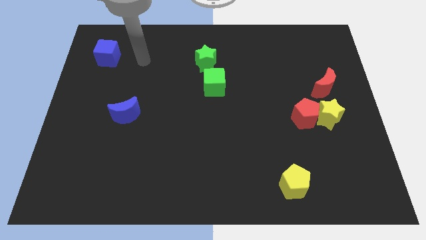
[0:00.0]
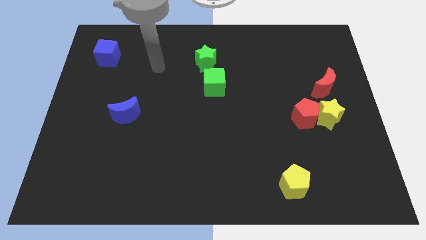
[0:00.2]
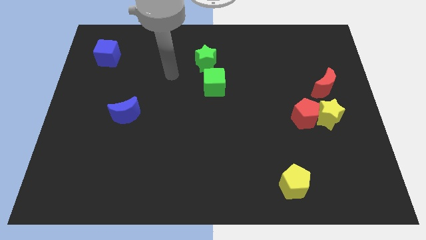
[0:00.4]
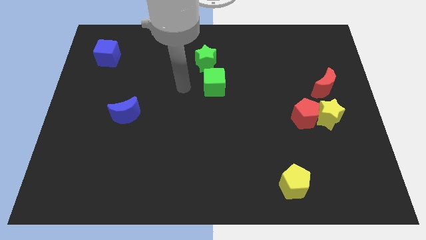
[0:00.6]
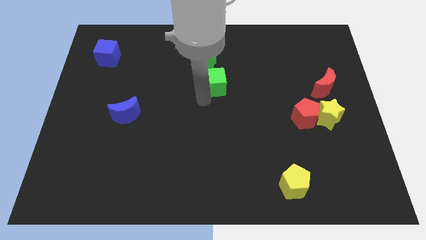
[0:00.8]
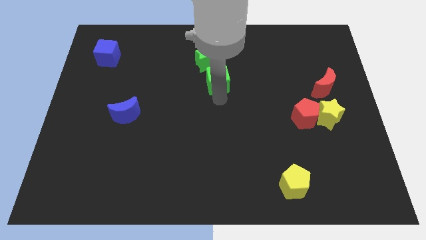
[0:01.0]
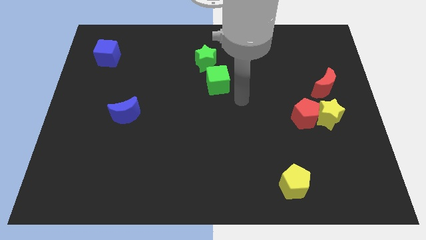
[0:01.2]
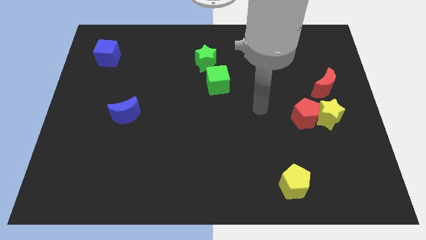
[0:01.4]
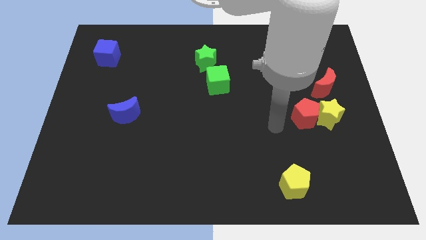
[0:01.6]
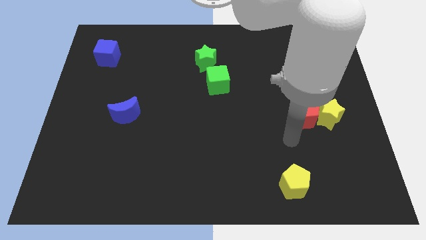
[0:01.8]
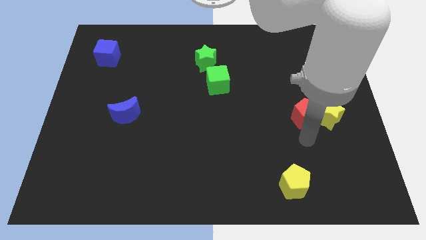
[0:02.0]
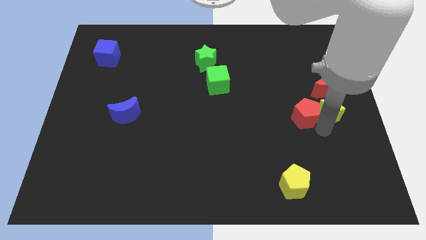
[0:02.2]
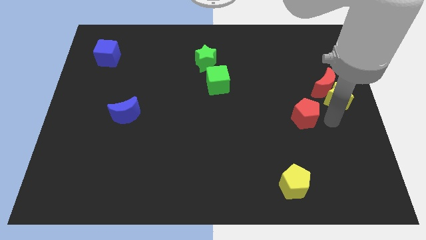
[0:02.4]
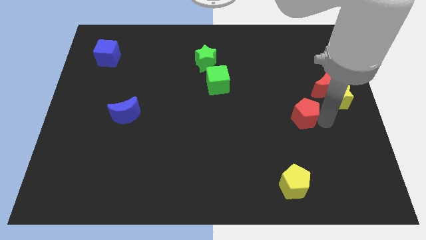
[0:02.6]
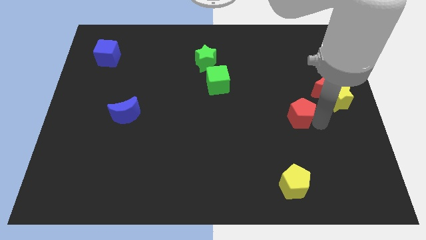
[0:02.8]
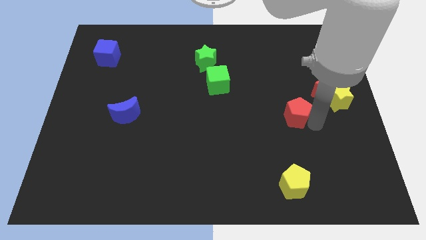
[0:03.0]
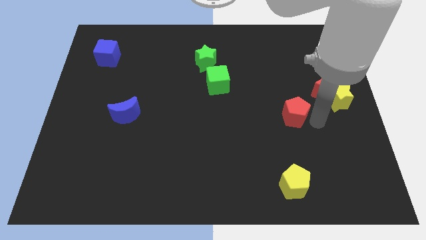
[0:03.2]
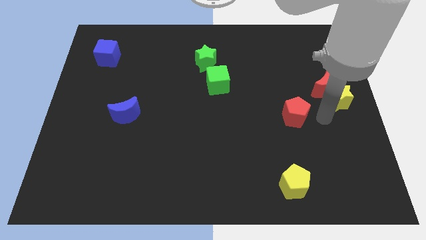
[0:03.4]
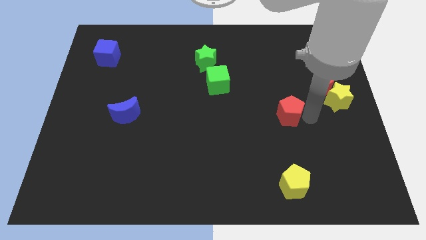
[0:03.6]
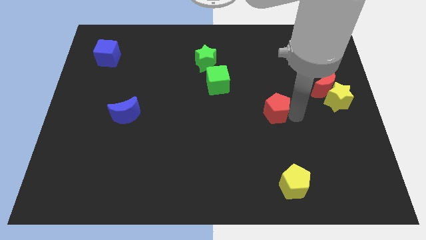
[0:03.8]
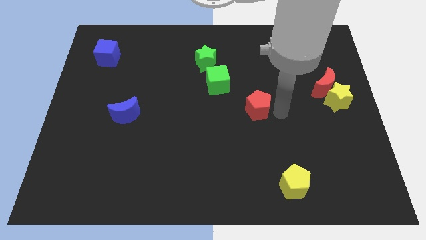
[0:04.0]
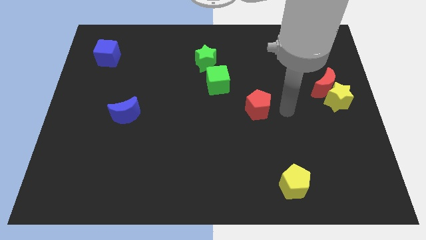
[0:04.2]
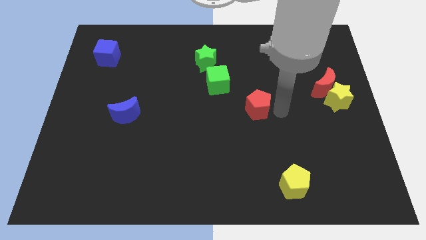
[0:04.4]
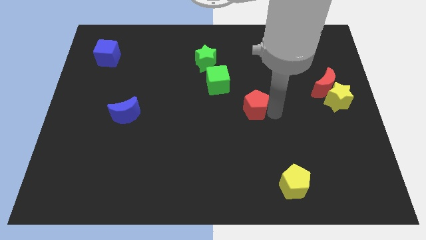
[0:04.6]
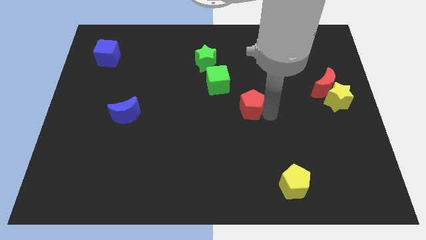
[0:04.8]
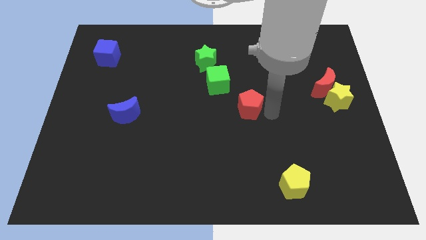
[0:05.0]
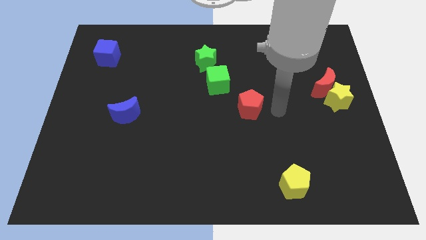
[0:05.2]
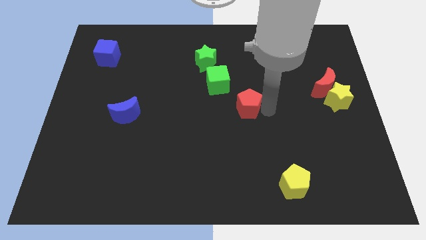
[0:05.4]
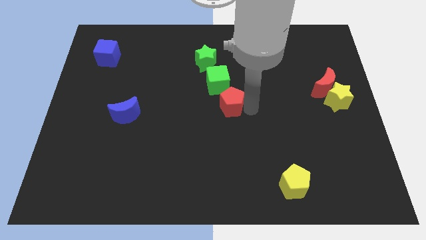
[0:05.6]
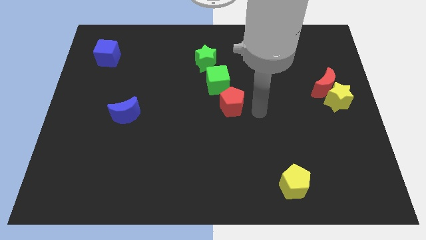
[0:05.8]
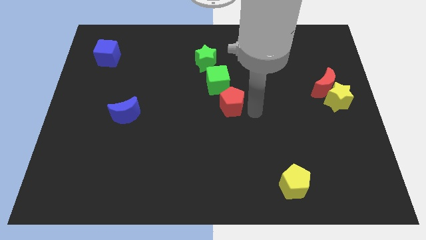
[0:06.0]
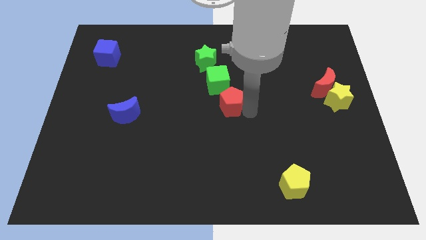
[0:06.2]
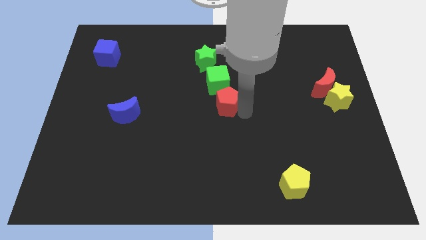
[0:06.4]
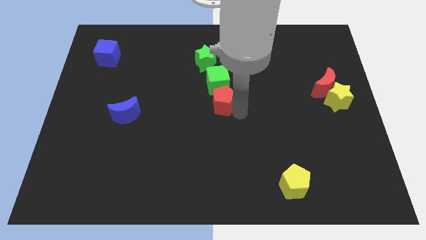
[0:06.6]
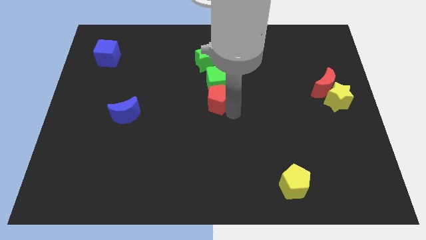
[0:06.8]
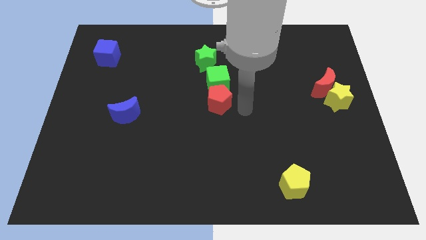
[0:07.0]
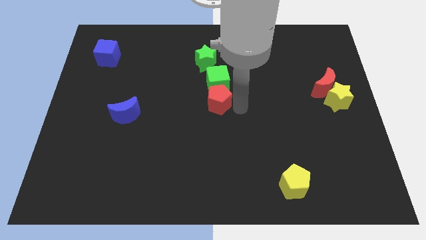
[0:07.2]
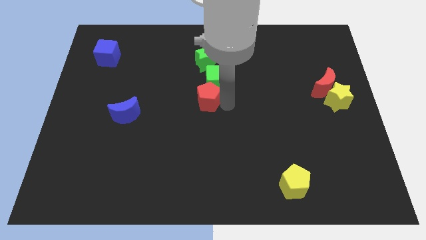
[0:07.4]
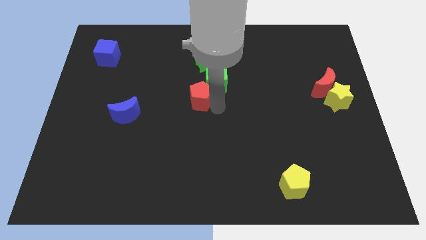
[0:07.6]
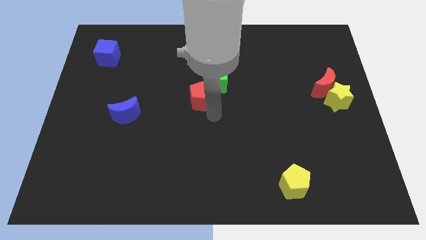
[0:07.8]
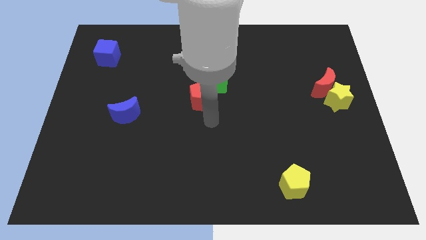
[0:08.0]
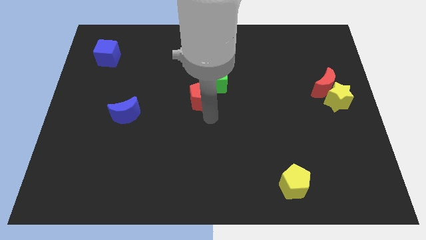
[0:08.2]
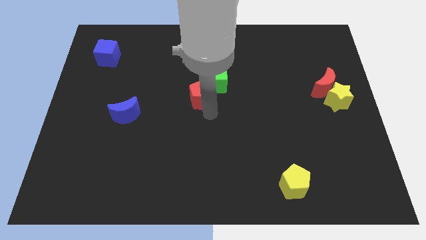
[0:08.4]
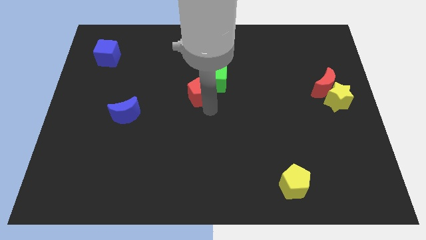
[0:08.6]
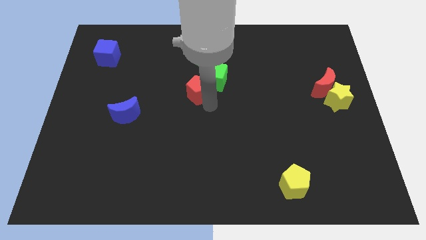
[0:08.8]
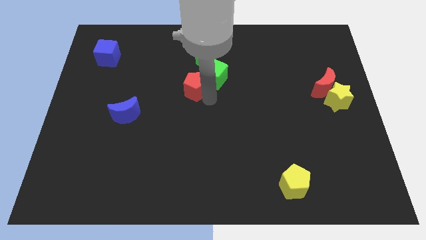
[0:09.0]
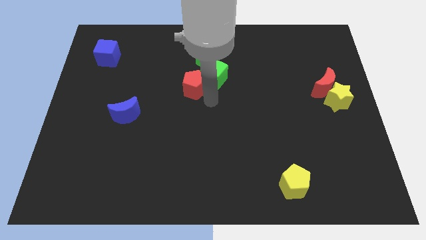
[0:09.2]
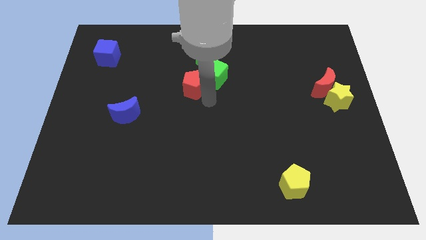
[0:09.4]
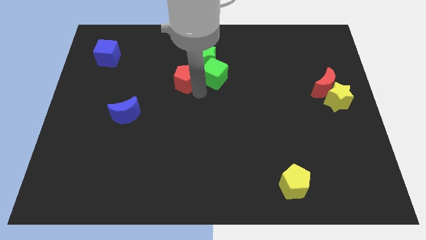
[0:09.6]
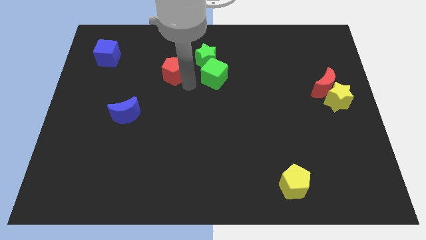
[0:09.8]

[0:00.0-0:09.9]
push the red pentagon to the left of the green star

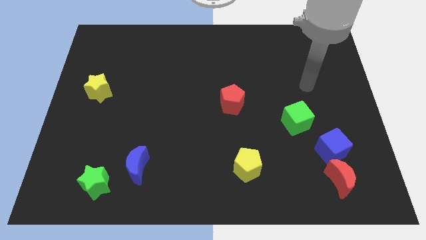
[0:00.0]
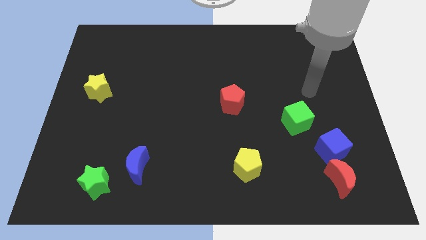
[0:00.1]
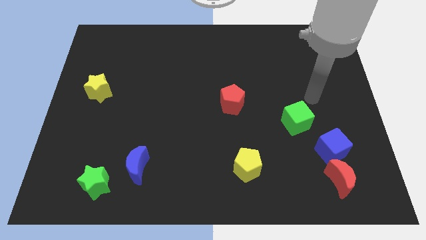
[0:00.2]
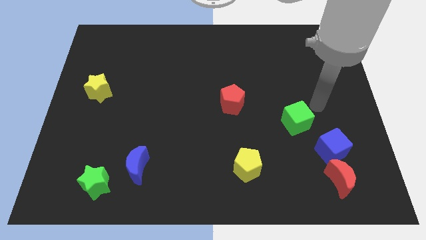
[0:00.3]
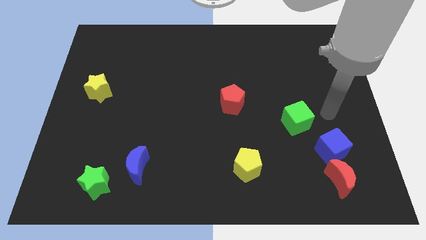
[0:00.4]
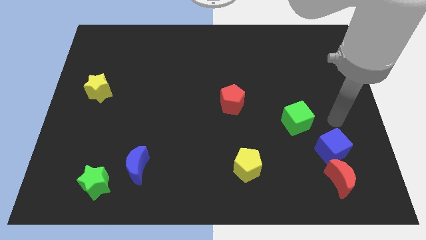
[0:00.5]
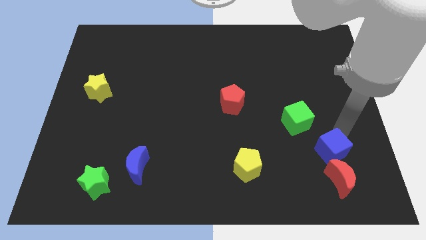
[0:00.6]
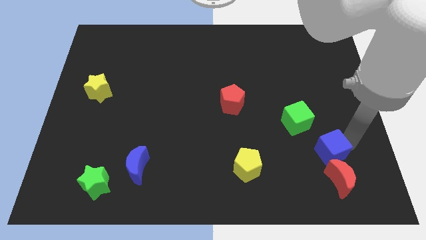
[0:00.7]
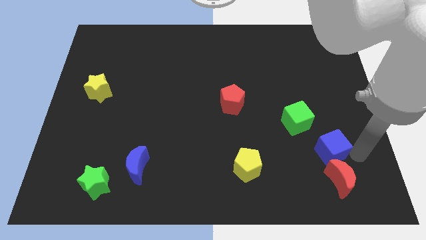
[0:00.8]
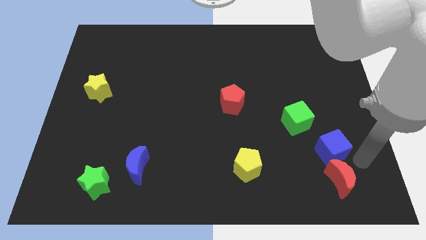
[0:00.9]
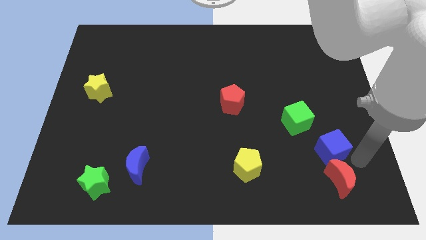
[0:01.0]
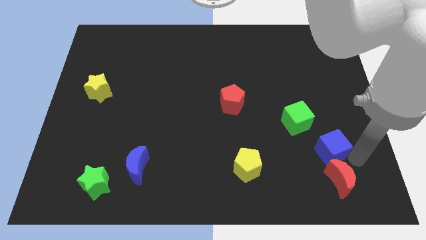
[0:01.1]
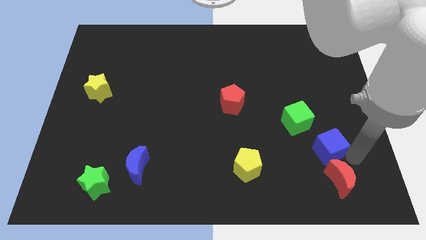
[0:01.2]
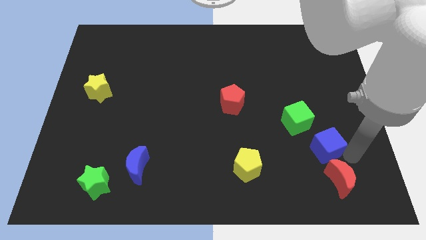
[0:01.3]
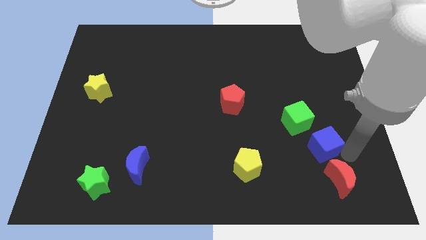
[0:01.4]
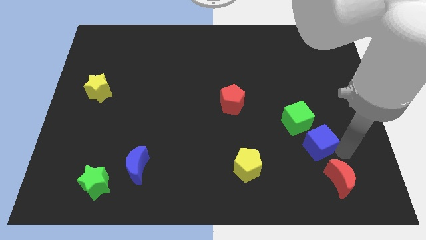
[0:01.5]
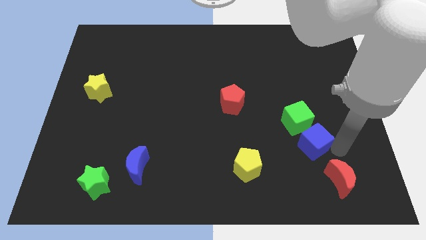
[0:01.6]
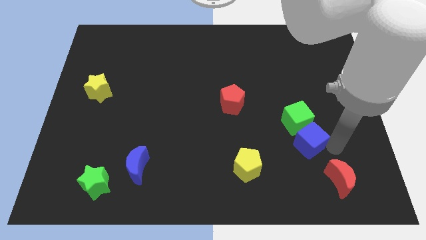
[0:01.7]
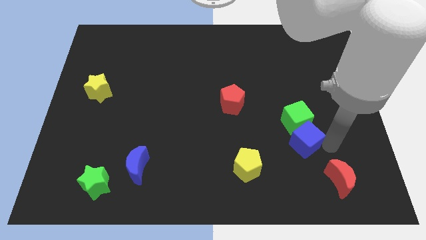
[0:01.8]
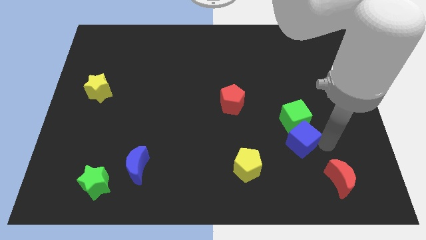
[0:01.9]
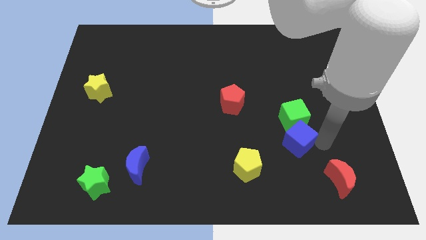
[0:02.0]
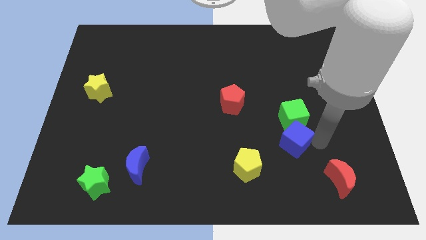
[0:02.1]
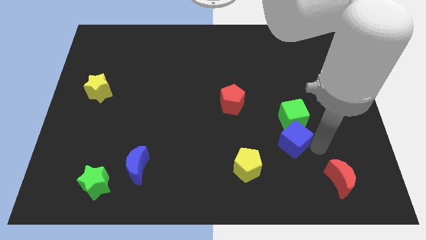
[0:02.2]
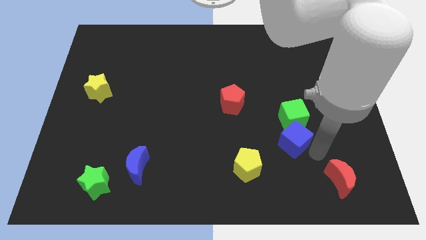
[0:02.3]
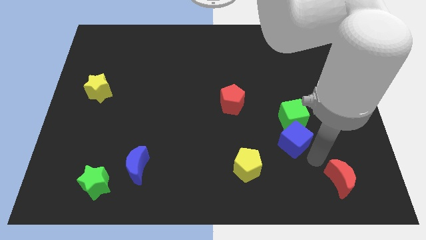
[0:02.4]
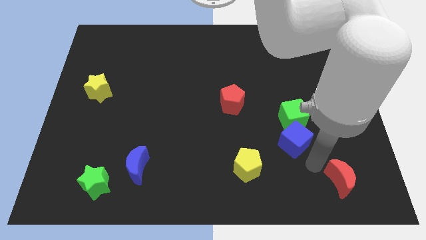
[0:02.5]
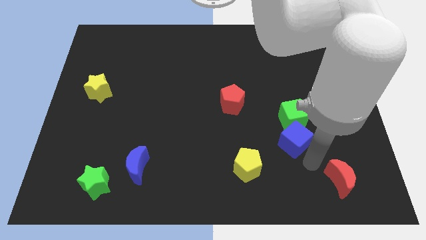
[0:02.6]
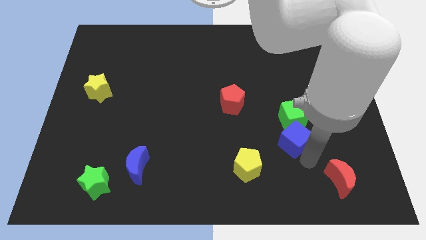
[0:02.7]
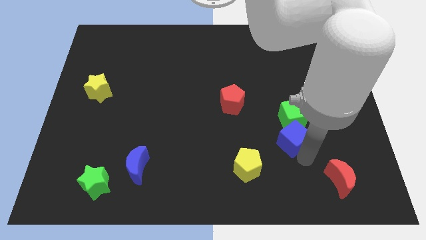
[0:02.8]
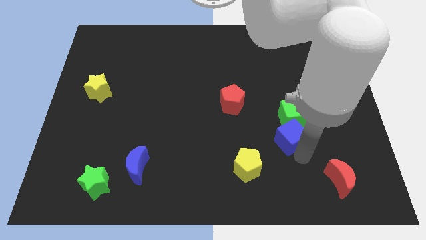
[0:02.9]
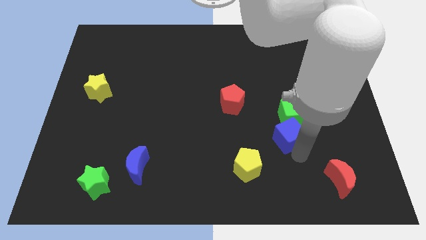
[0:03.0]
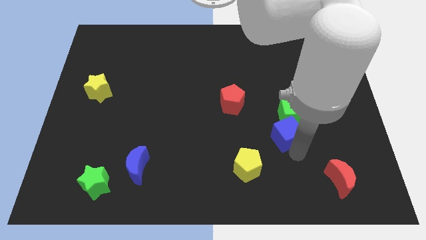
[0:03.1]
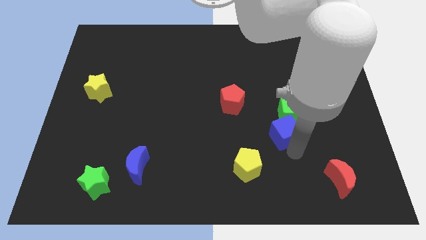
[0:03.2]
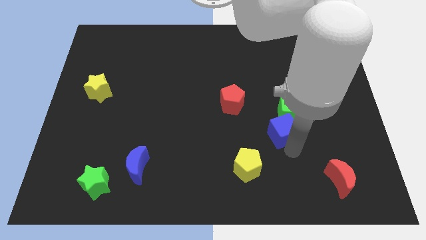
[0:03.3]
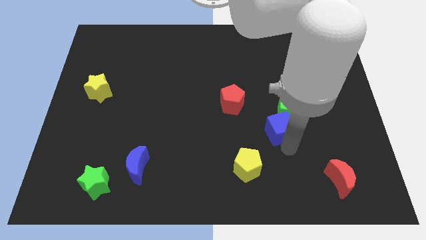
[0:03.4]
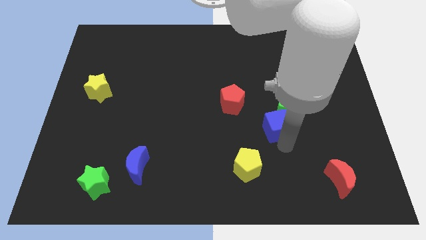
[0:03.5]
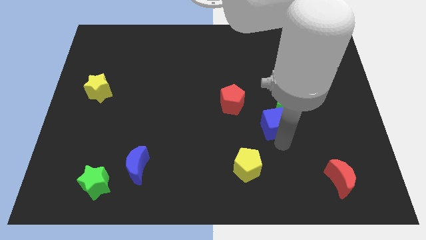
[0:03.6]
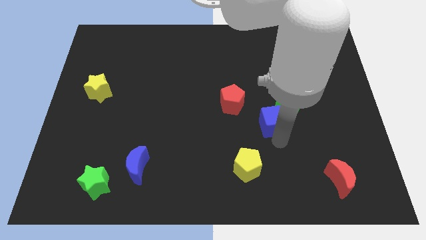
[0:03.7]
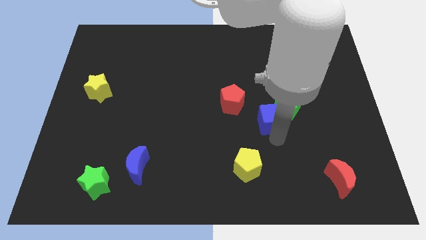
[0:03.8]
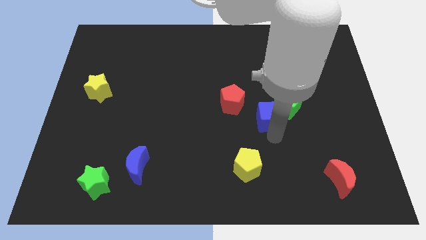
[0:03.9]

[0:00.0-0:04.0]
move the blue cube just right of the red pentagon
